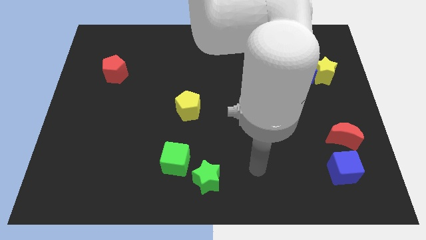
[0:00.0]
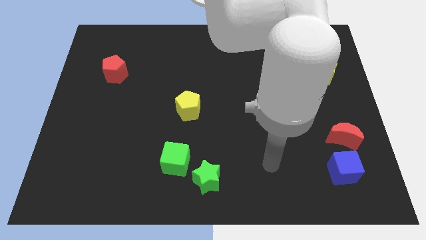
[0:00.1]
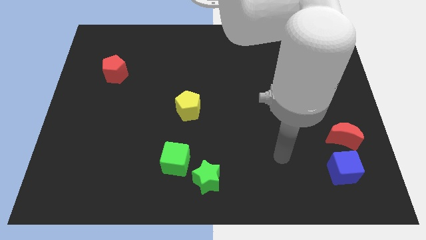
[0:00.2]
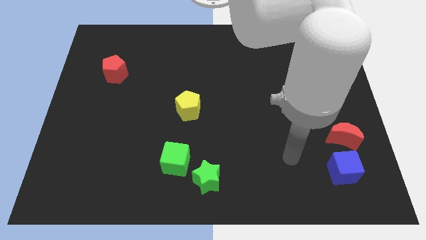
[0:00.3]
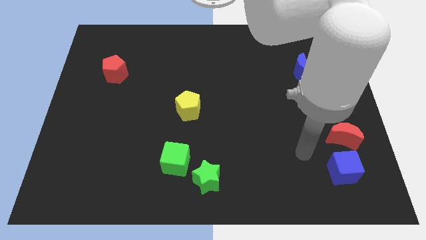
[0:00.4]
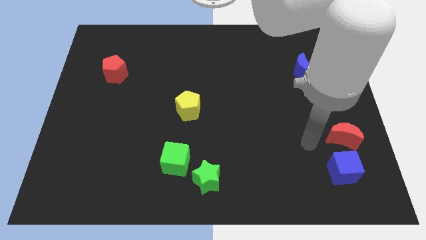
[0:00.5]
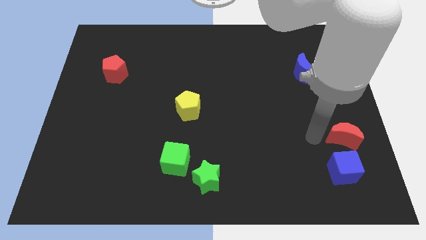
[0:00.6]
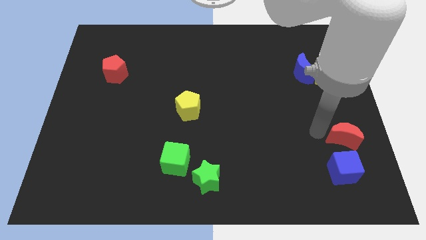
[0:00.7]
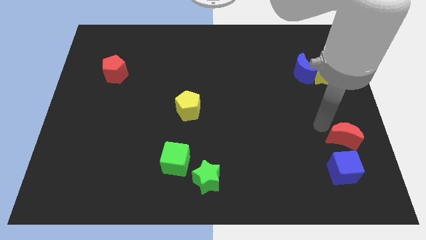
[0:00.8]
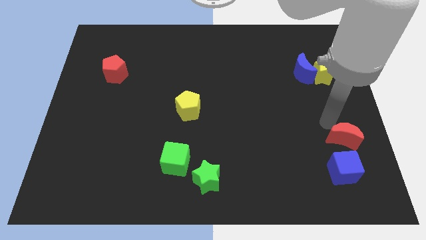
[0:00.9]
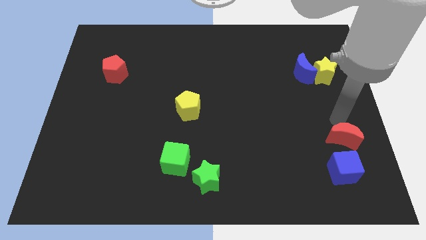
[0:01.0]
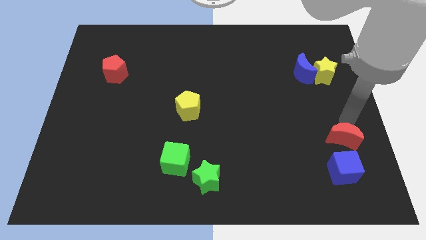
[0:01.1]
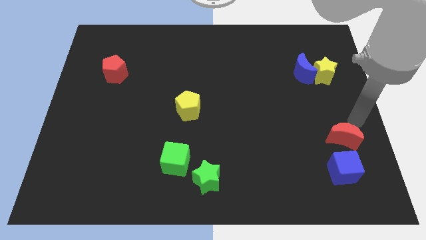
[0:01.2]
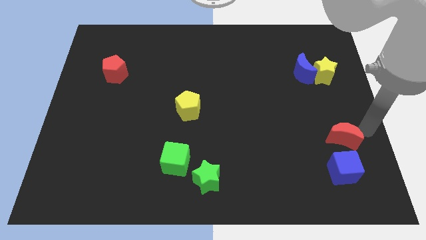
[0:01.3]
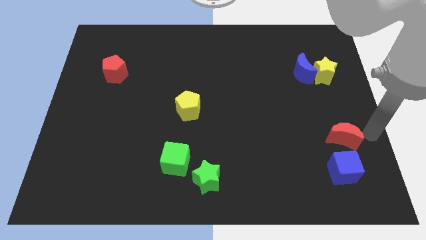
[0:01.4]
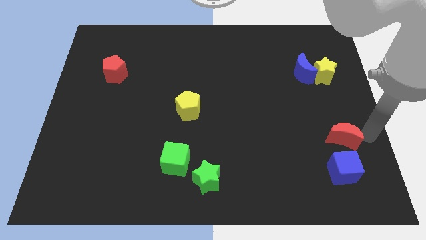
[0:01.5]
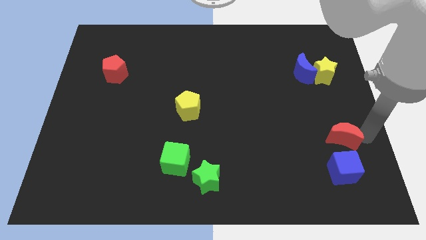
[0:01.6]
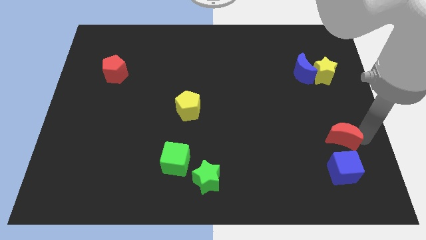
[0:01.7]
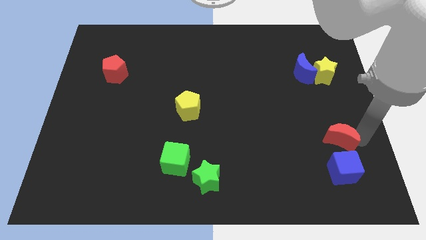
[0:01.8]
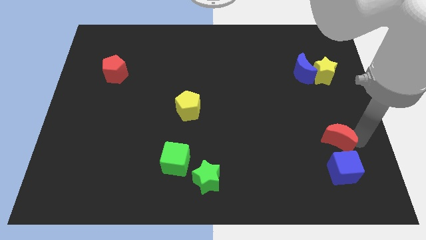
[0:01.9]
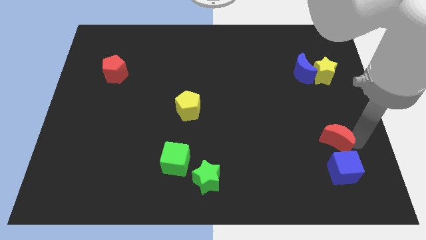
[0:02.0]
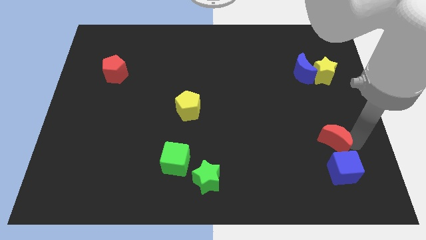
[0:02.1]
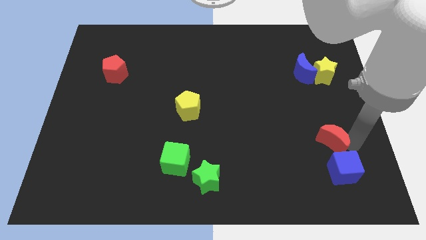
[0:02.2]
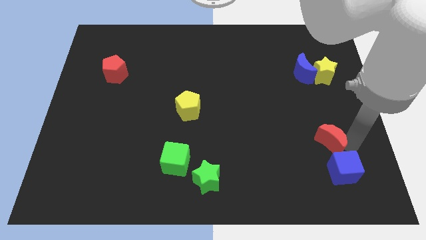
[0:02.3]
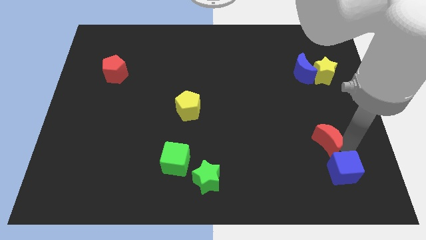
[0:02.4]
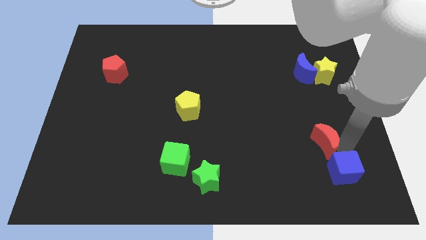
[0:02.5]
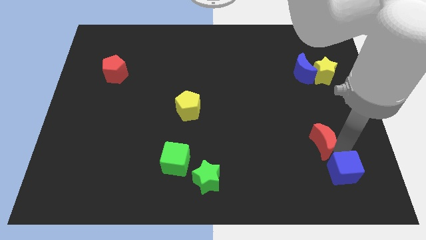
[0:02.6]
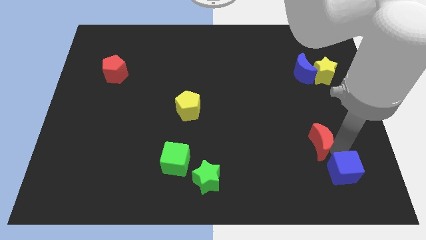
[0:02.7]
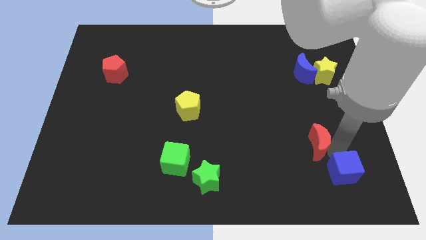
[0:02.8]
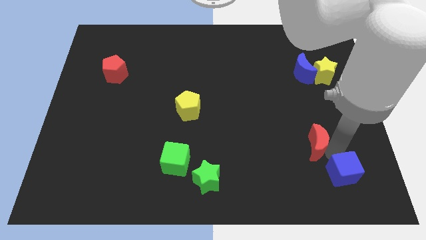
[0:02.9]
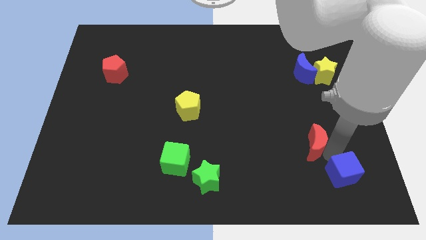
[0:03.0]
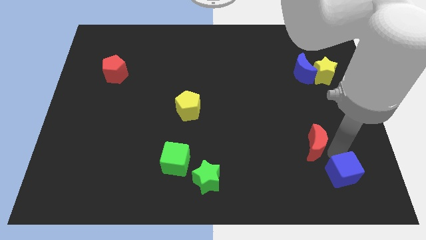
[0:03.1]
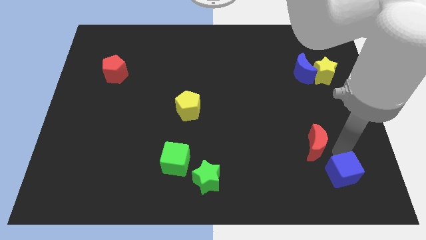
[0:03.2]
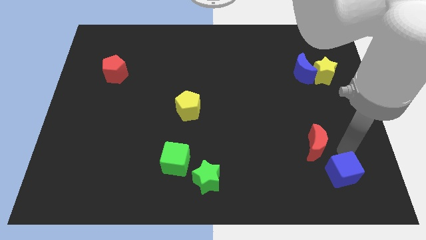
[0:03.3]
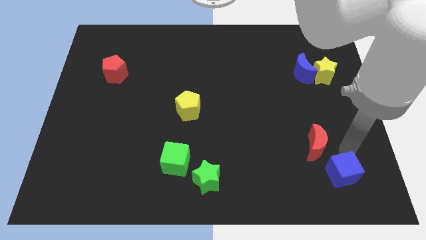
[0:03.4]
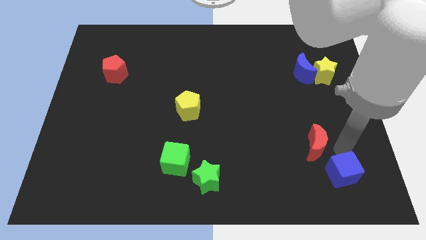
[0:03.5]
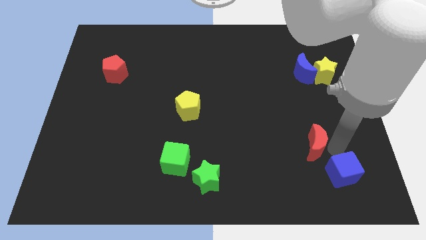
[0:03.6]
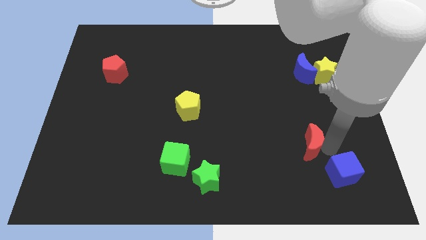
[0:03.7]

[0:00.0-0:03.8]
slightly move the red moon left

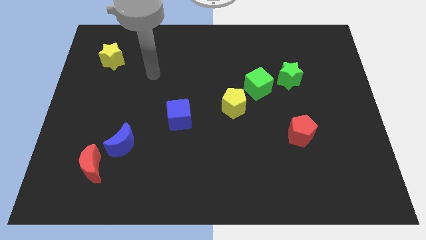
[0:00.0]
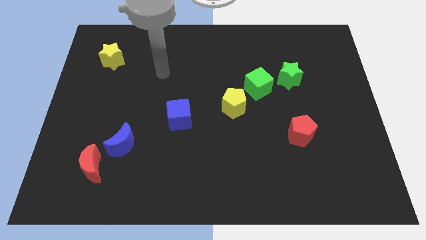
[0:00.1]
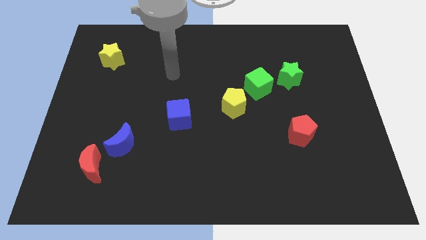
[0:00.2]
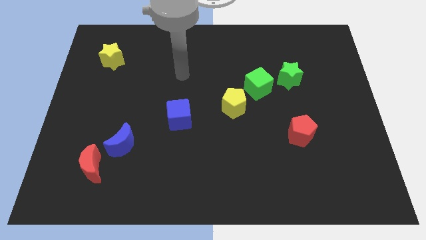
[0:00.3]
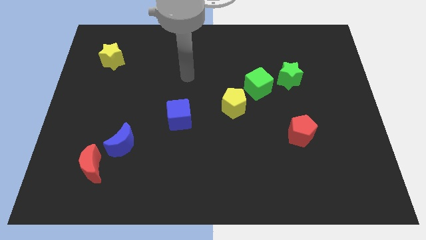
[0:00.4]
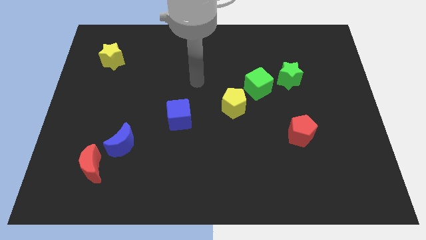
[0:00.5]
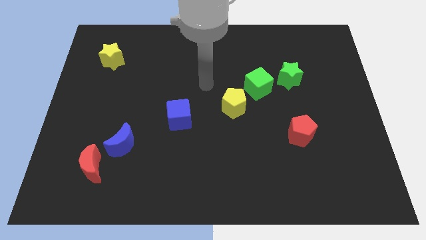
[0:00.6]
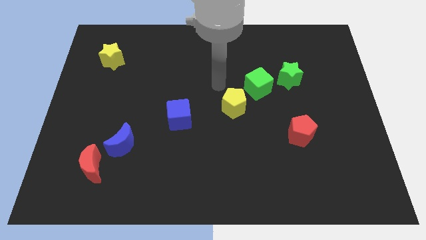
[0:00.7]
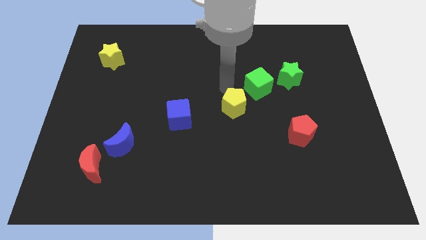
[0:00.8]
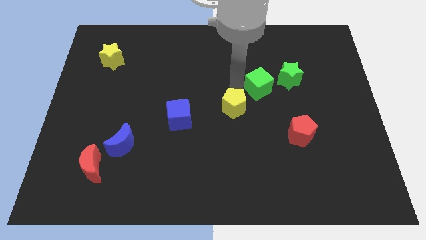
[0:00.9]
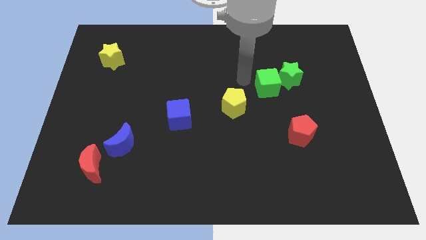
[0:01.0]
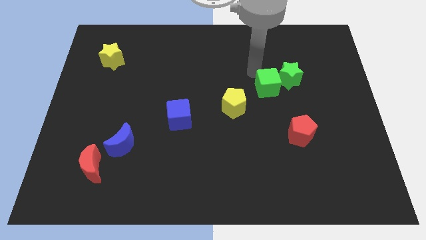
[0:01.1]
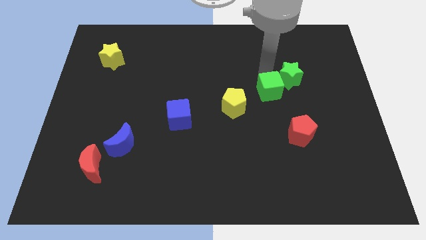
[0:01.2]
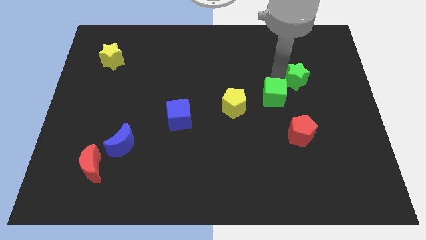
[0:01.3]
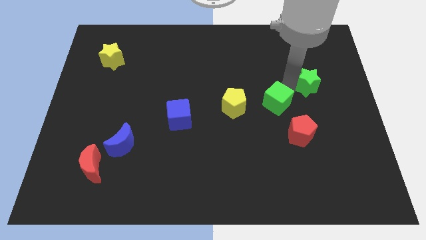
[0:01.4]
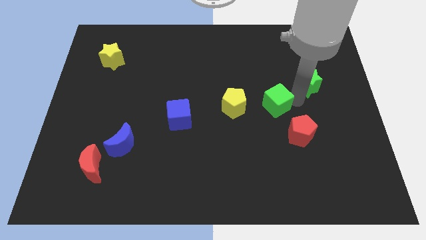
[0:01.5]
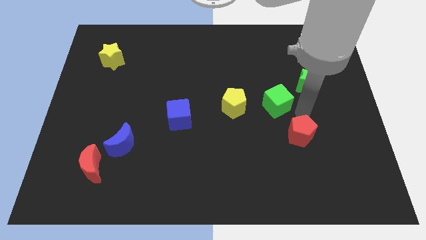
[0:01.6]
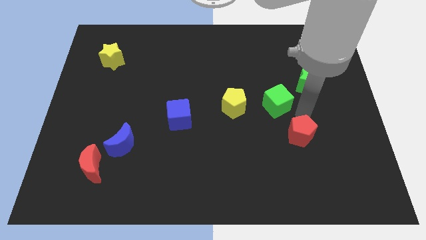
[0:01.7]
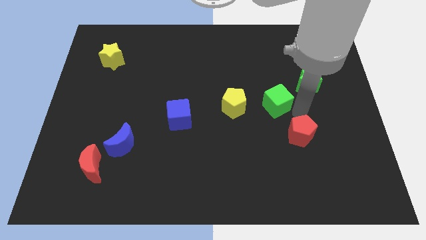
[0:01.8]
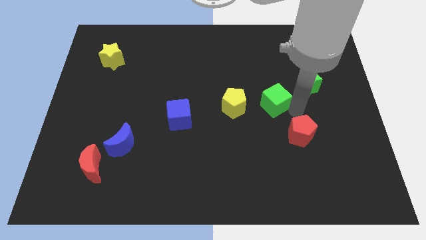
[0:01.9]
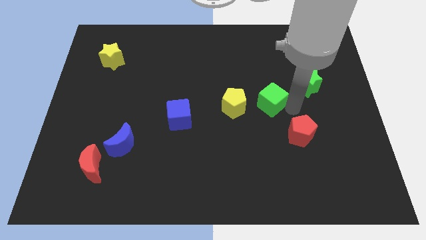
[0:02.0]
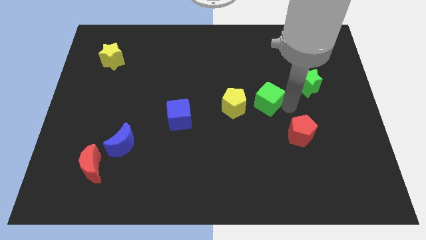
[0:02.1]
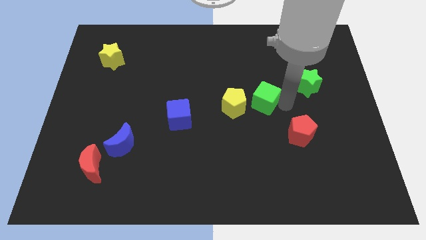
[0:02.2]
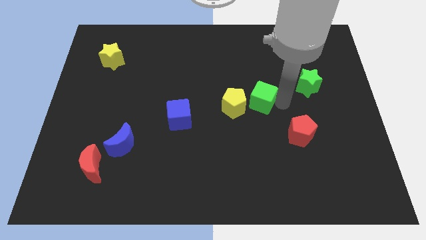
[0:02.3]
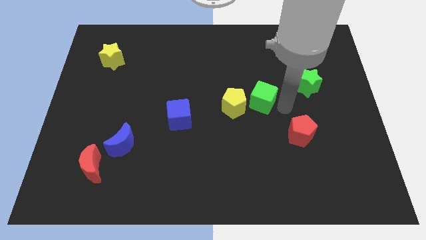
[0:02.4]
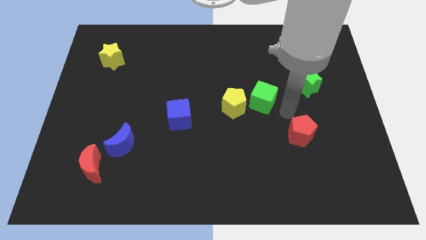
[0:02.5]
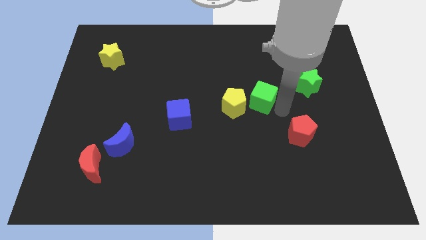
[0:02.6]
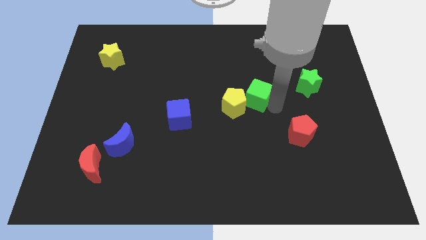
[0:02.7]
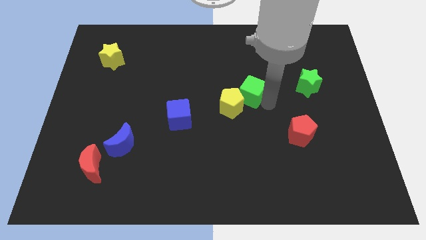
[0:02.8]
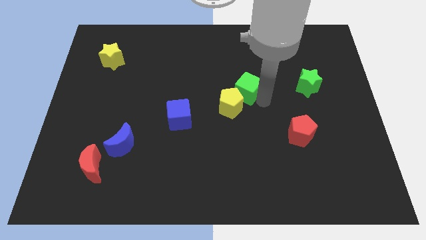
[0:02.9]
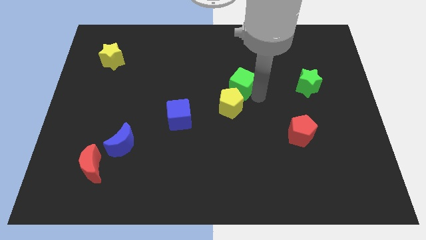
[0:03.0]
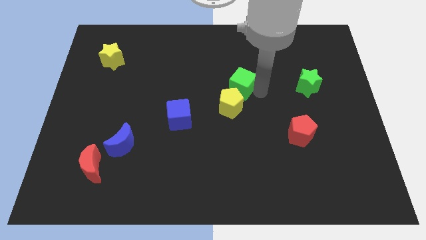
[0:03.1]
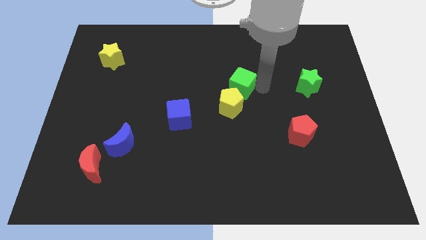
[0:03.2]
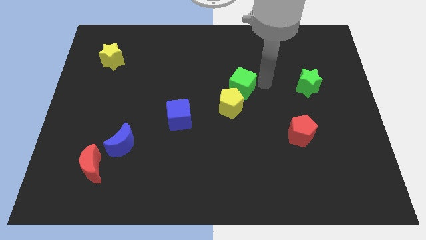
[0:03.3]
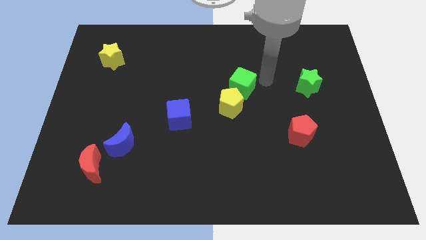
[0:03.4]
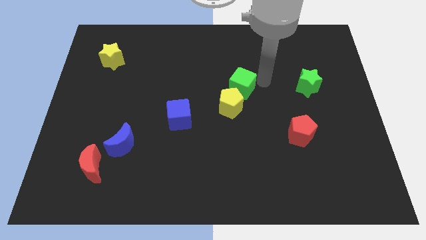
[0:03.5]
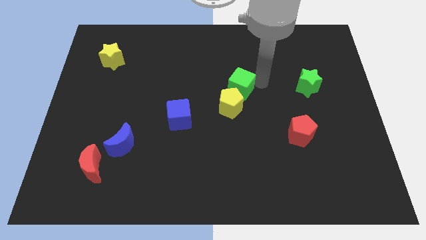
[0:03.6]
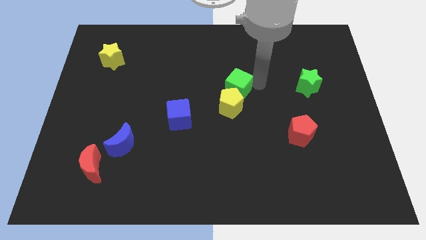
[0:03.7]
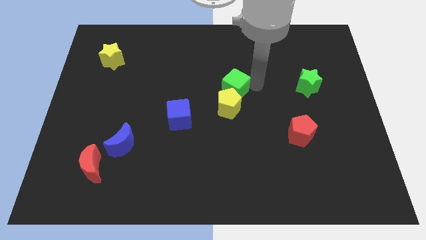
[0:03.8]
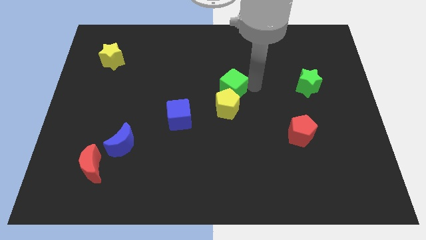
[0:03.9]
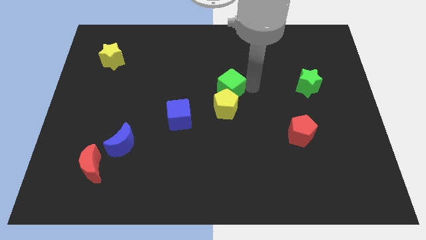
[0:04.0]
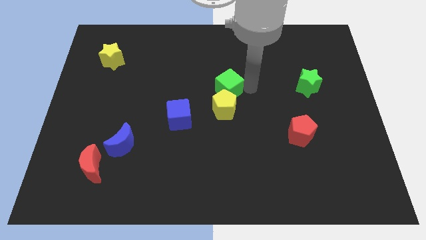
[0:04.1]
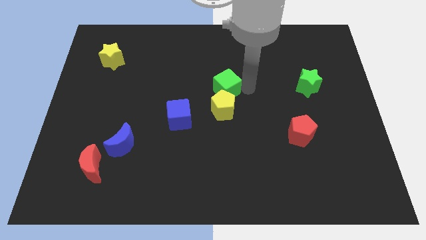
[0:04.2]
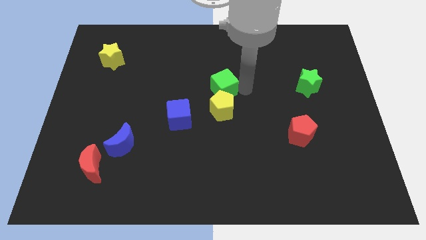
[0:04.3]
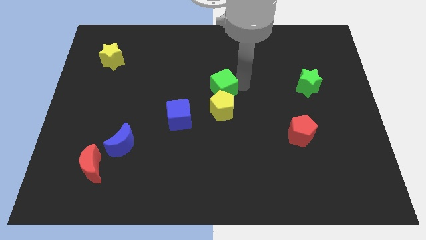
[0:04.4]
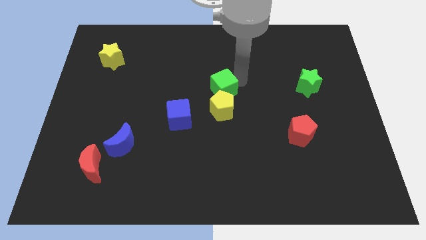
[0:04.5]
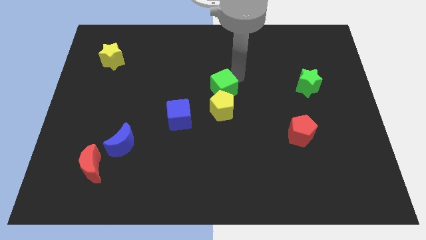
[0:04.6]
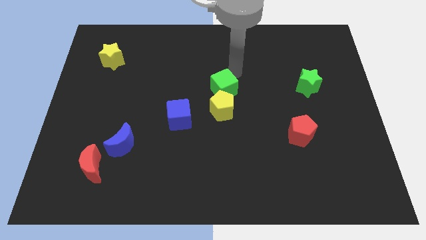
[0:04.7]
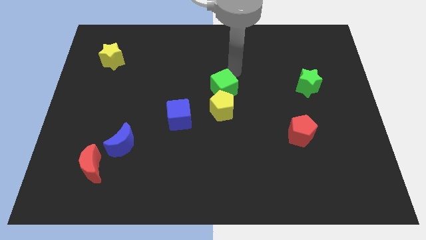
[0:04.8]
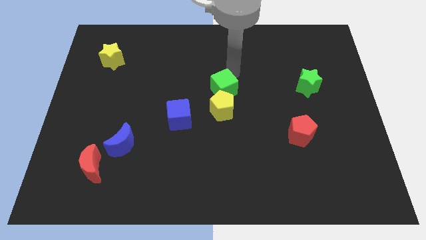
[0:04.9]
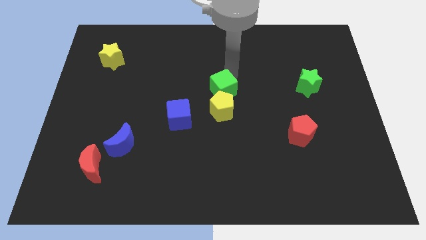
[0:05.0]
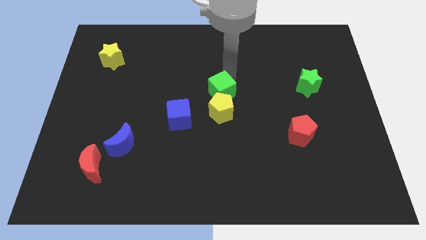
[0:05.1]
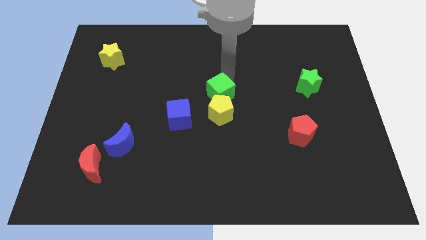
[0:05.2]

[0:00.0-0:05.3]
slightly push the green cube downwards and then to the left
